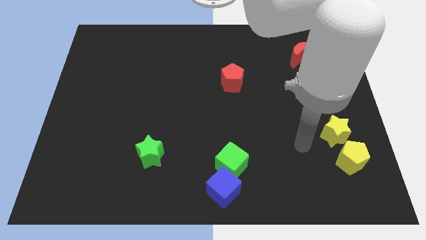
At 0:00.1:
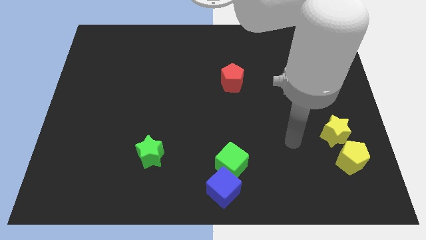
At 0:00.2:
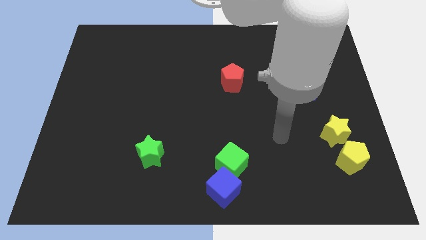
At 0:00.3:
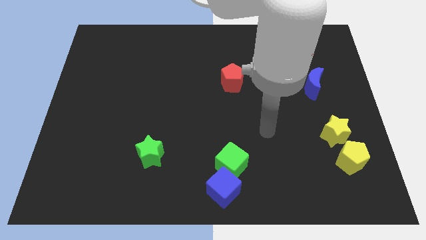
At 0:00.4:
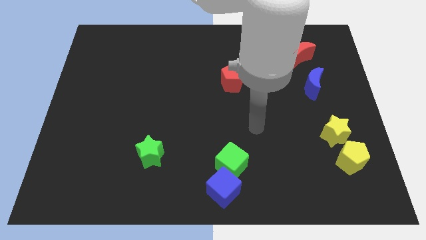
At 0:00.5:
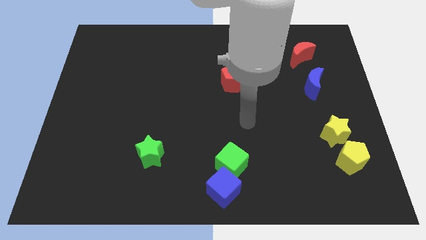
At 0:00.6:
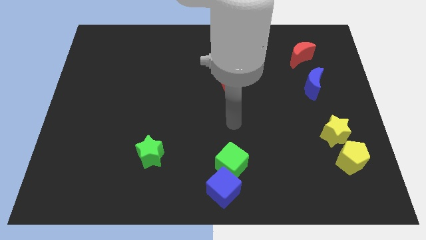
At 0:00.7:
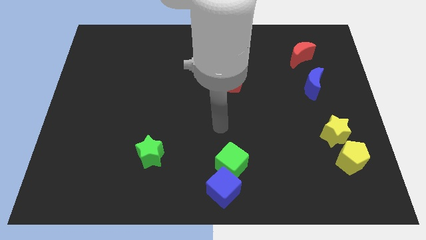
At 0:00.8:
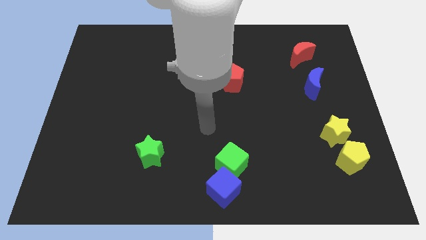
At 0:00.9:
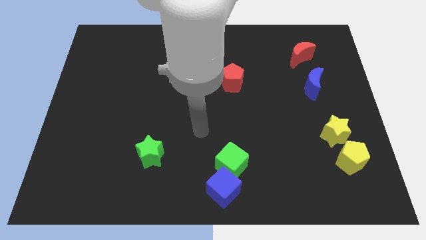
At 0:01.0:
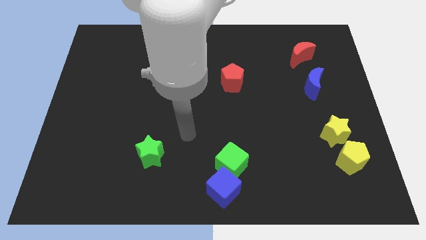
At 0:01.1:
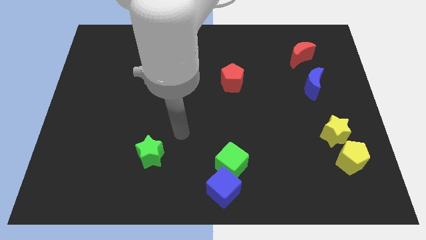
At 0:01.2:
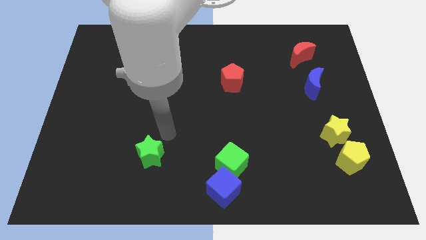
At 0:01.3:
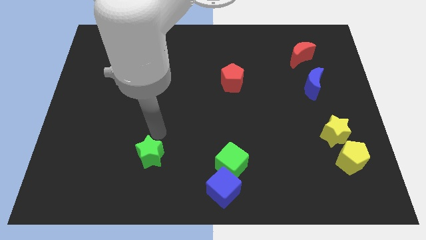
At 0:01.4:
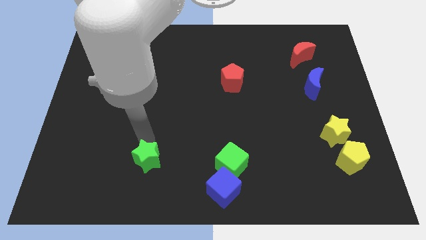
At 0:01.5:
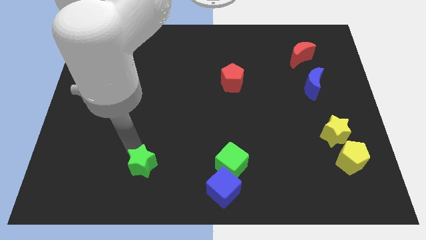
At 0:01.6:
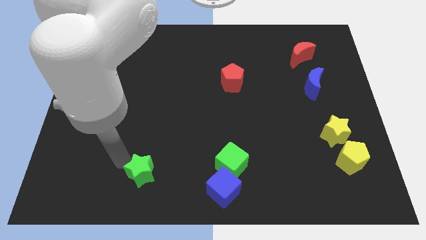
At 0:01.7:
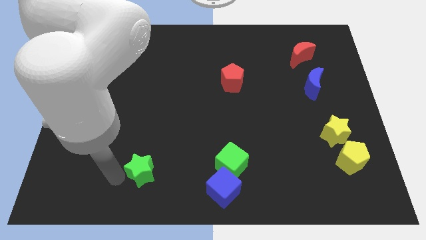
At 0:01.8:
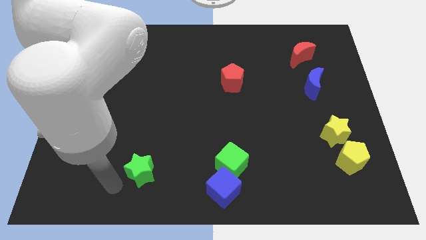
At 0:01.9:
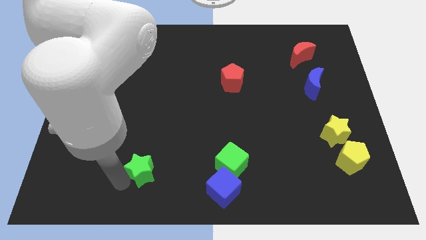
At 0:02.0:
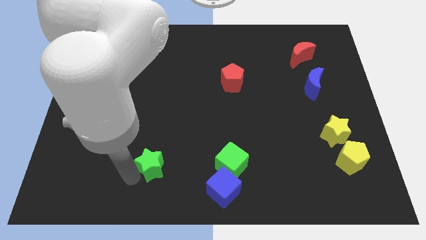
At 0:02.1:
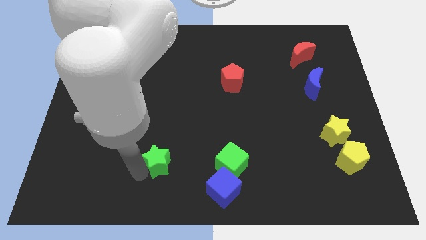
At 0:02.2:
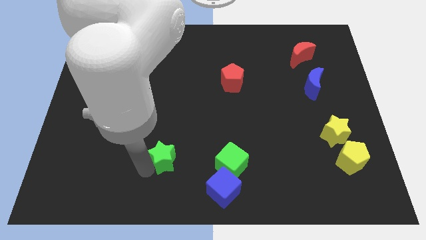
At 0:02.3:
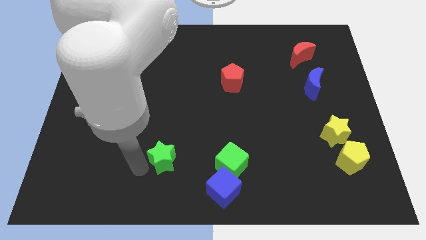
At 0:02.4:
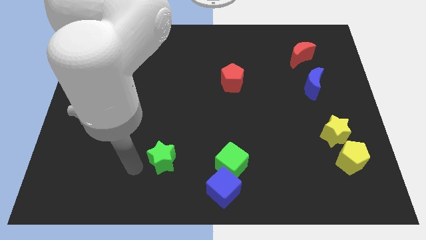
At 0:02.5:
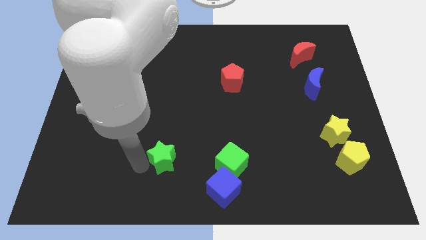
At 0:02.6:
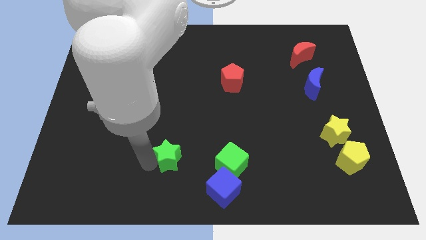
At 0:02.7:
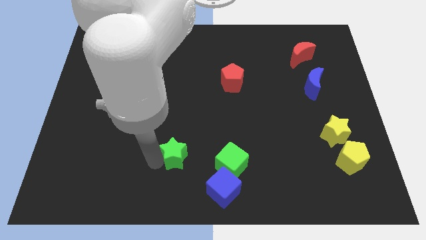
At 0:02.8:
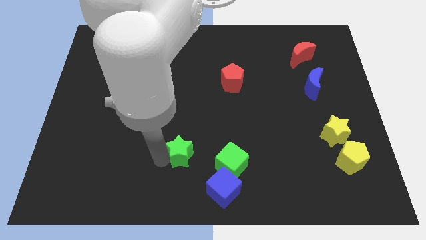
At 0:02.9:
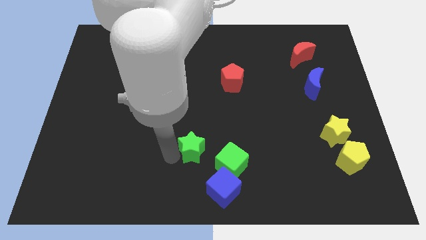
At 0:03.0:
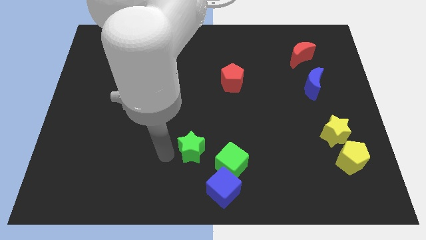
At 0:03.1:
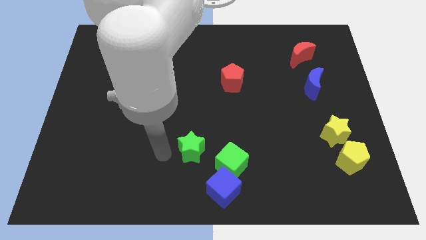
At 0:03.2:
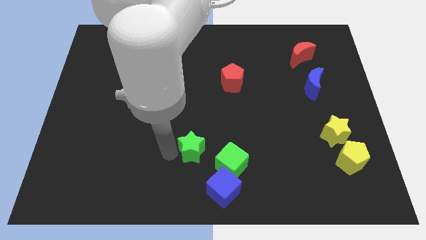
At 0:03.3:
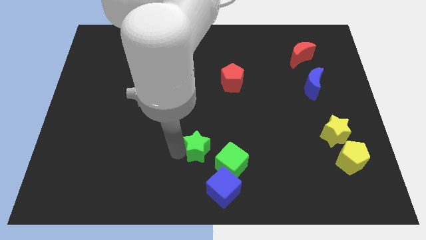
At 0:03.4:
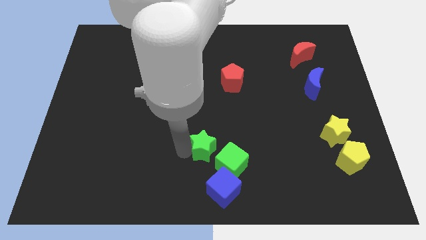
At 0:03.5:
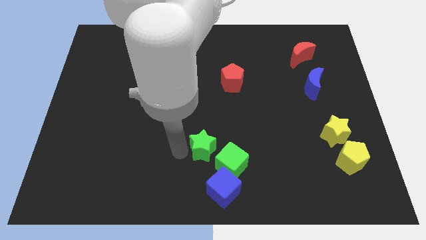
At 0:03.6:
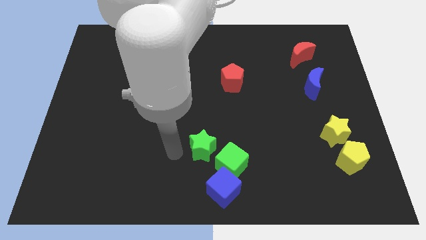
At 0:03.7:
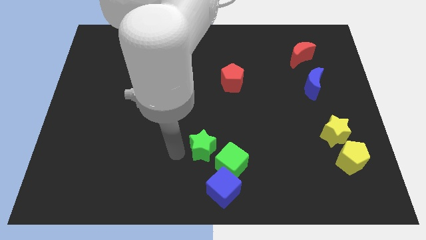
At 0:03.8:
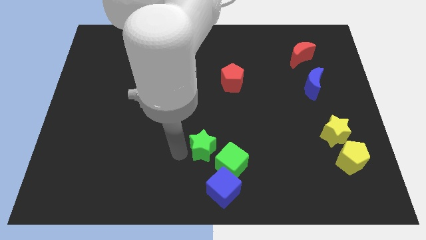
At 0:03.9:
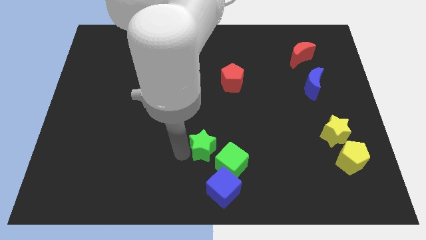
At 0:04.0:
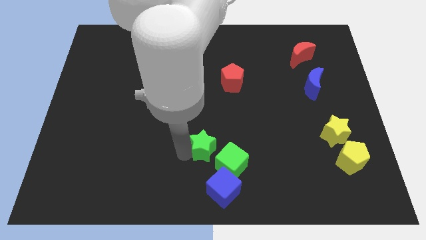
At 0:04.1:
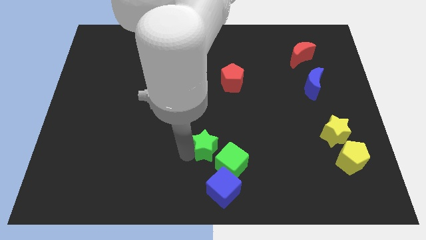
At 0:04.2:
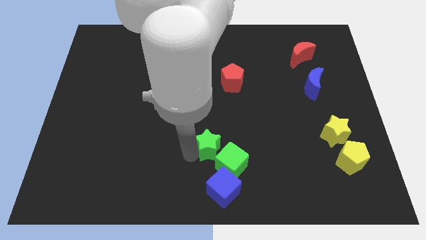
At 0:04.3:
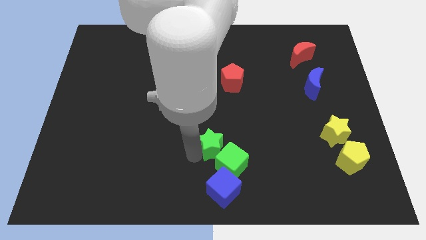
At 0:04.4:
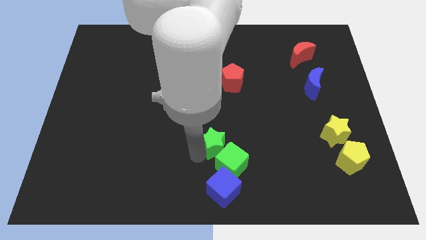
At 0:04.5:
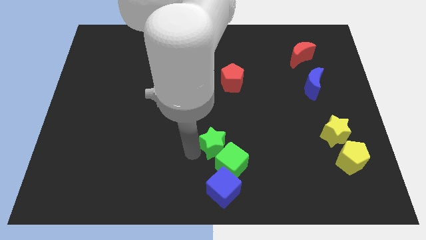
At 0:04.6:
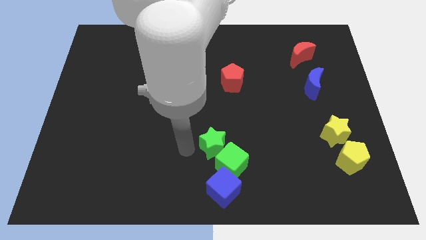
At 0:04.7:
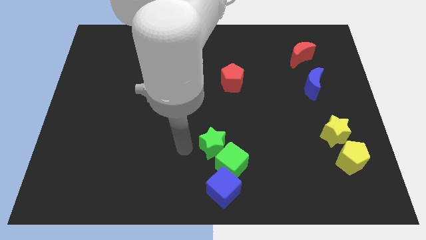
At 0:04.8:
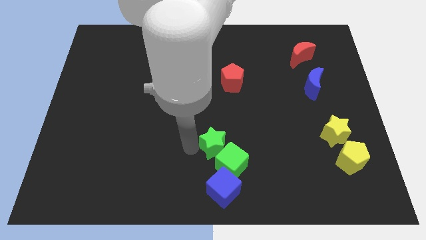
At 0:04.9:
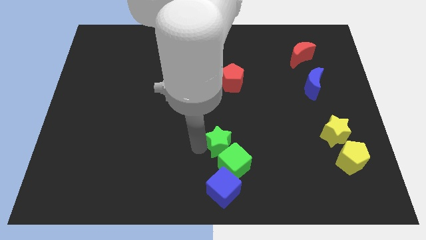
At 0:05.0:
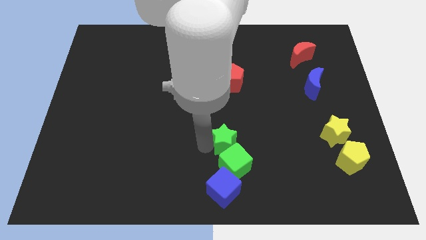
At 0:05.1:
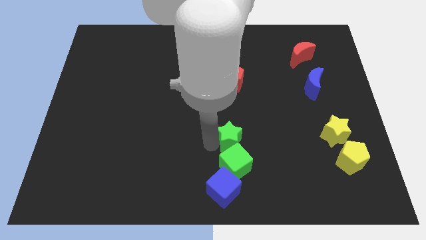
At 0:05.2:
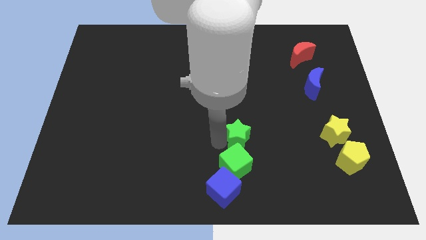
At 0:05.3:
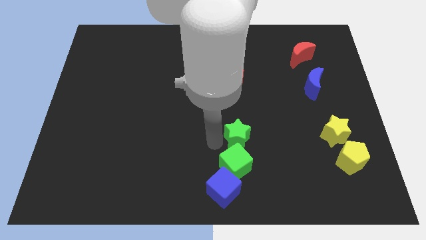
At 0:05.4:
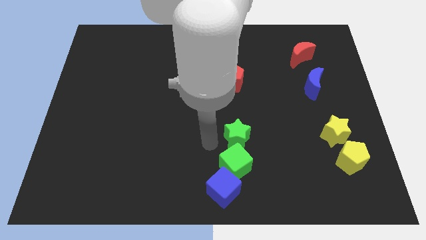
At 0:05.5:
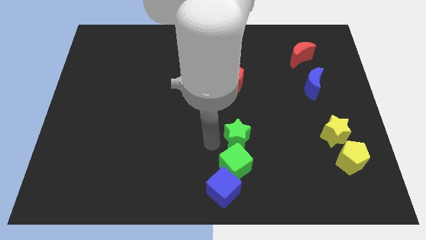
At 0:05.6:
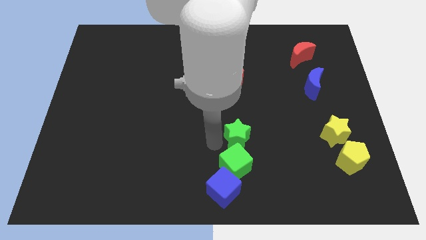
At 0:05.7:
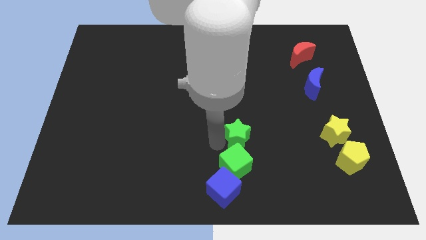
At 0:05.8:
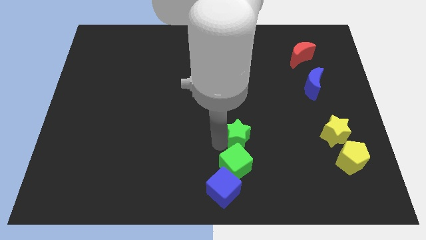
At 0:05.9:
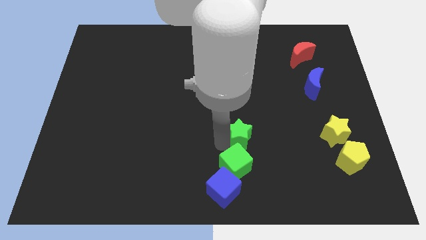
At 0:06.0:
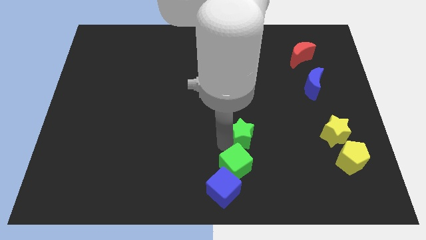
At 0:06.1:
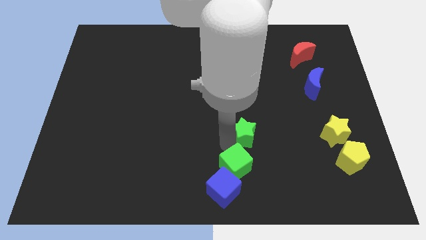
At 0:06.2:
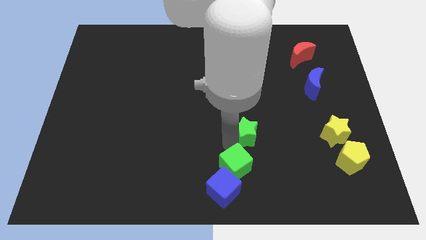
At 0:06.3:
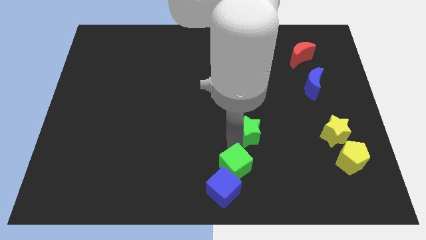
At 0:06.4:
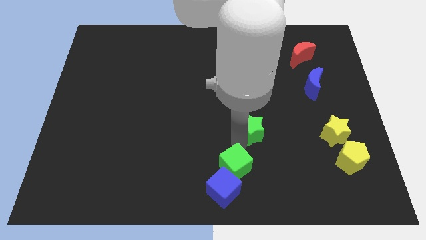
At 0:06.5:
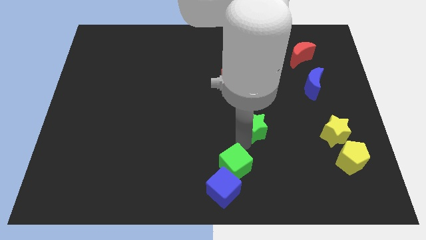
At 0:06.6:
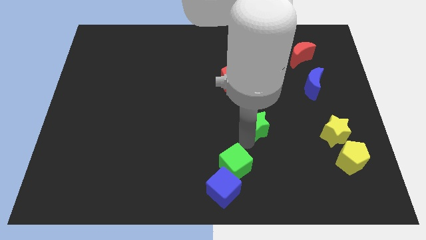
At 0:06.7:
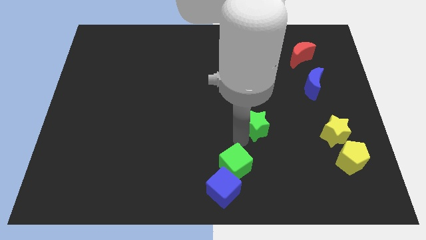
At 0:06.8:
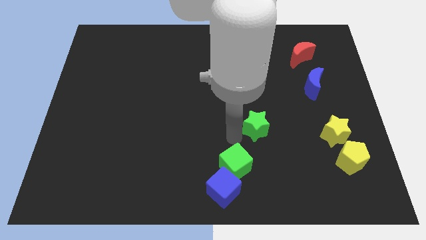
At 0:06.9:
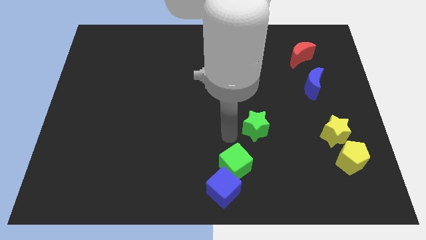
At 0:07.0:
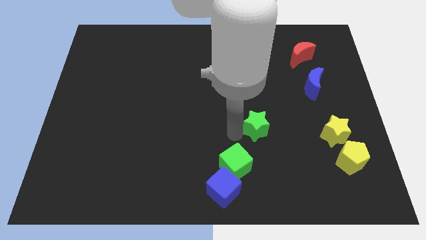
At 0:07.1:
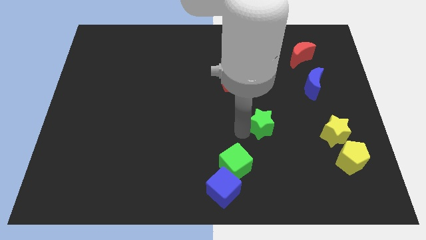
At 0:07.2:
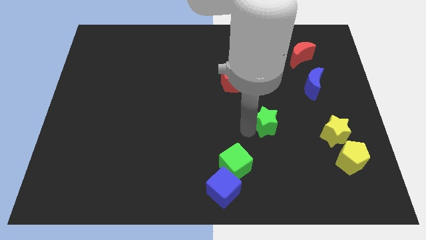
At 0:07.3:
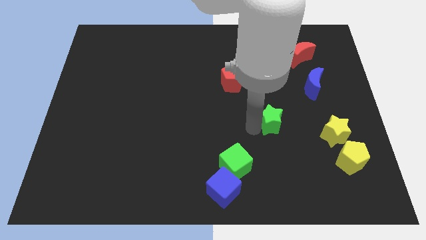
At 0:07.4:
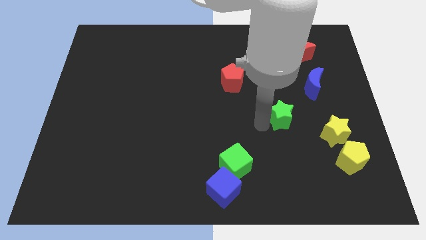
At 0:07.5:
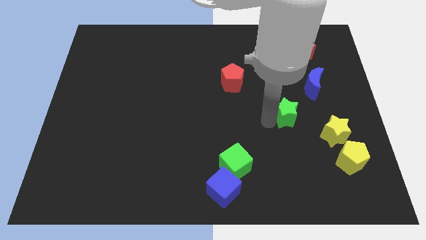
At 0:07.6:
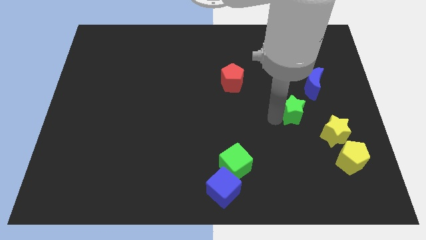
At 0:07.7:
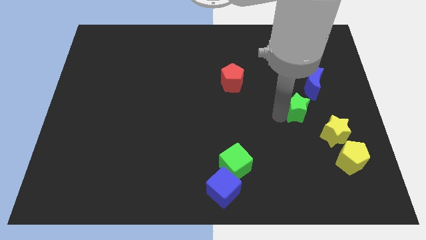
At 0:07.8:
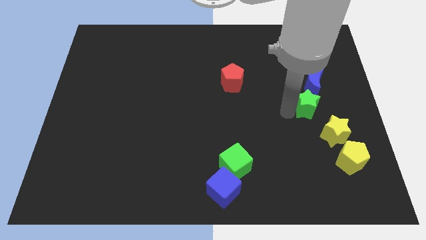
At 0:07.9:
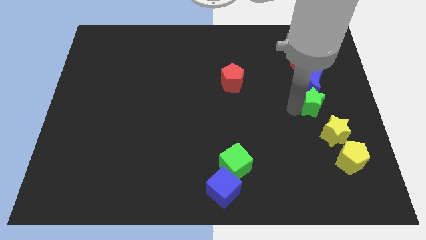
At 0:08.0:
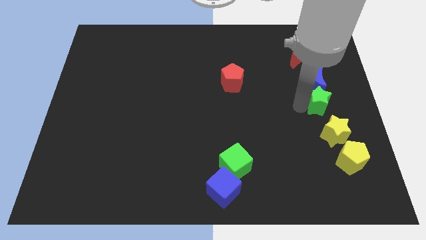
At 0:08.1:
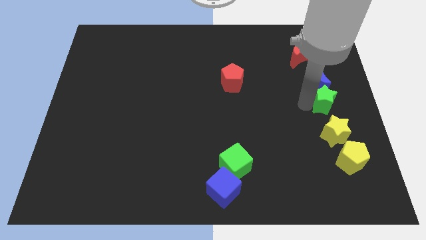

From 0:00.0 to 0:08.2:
slide the green star to the right side
